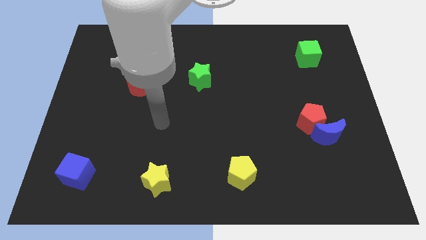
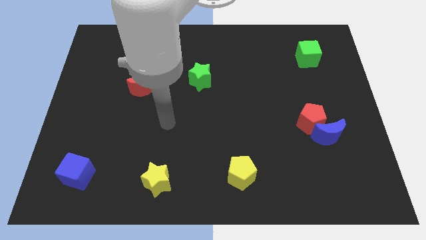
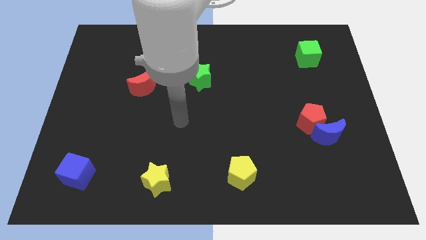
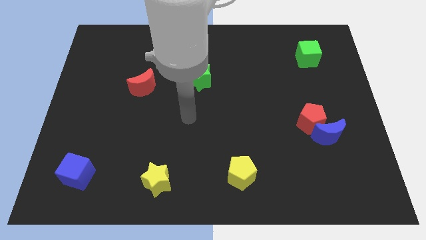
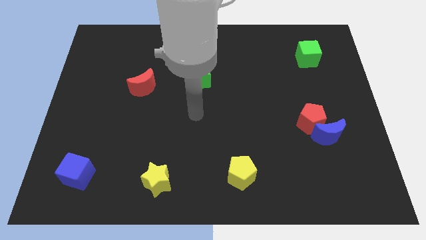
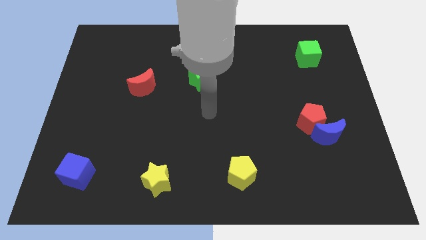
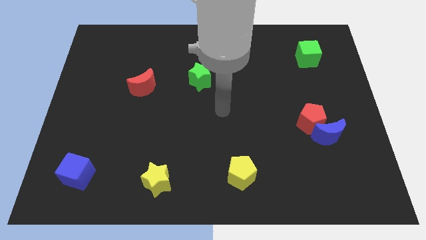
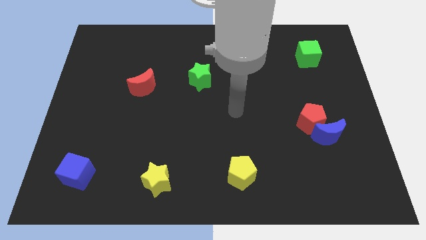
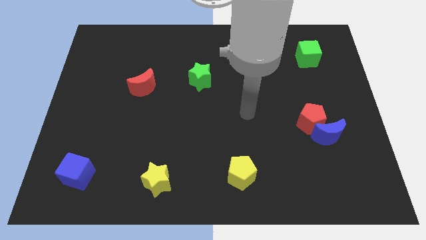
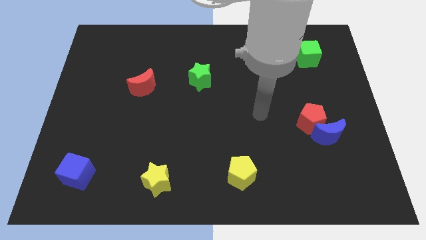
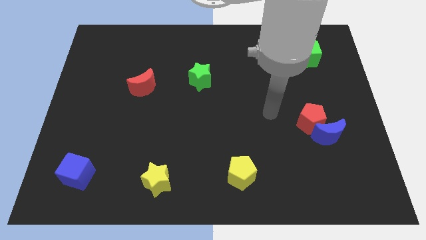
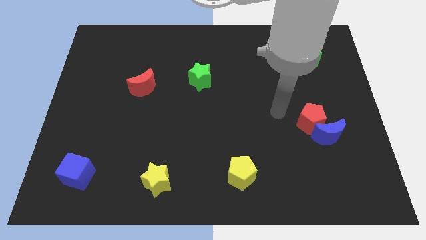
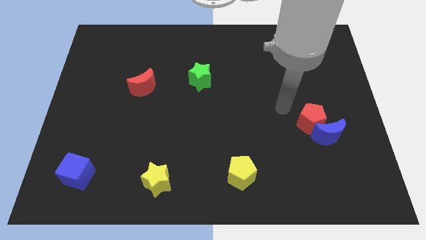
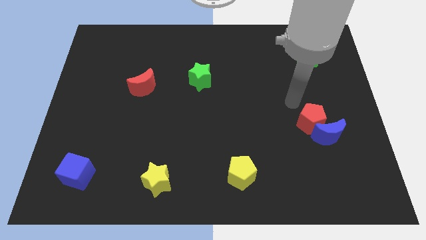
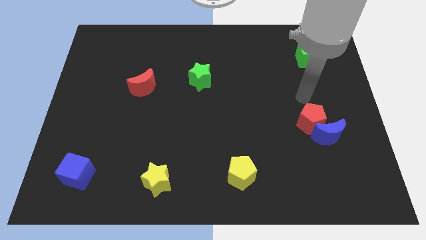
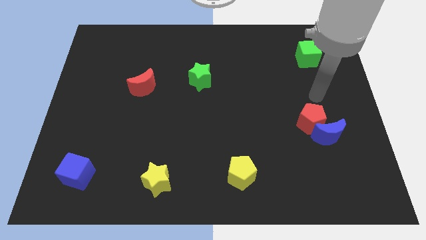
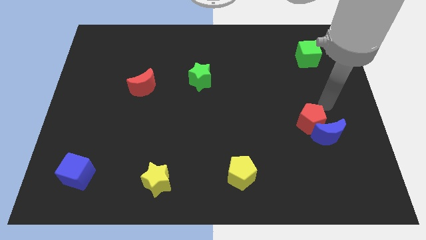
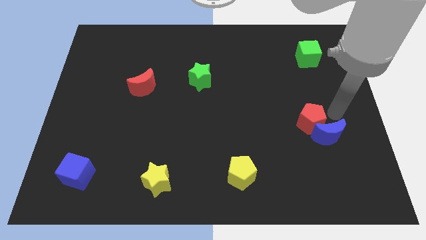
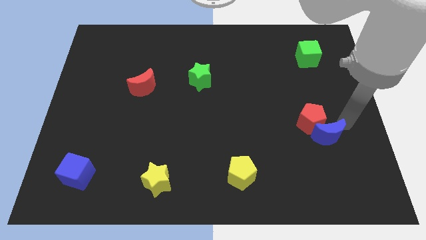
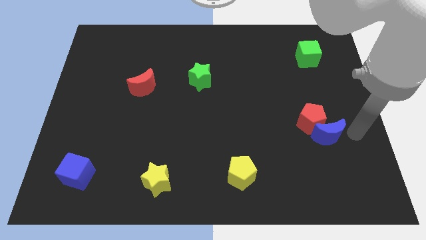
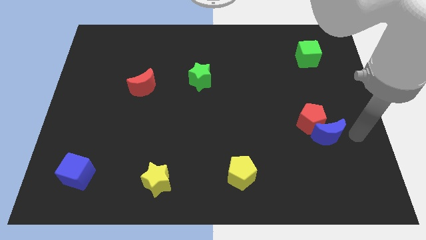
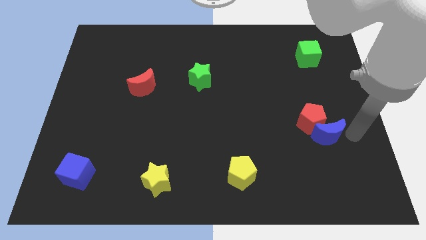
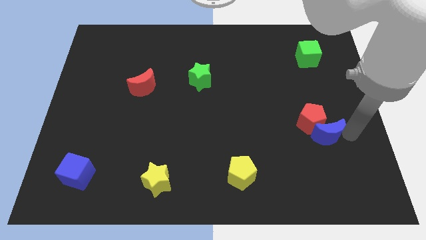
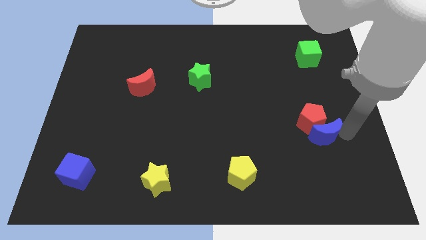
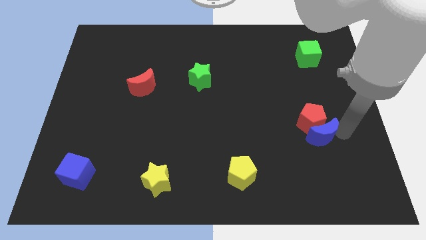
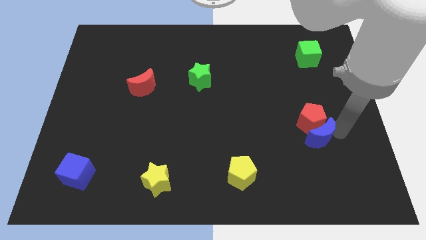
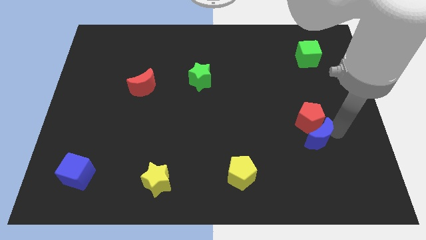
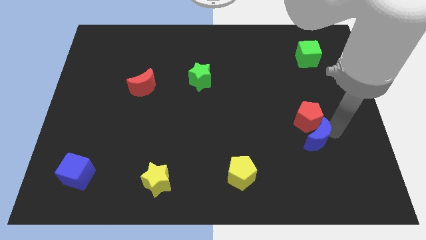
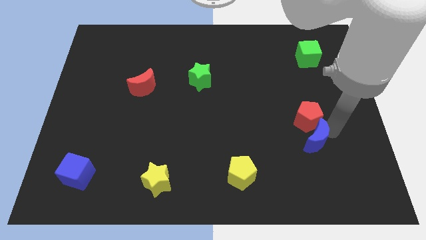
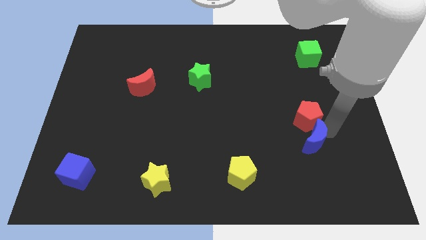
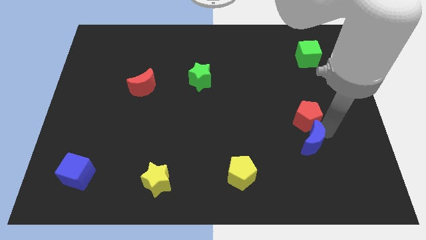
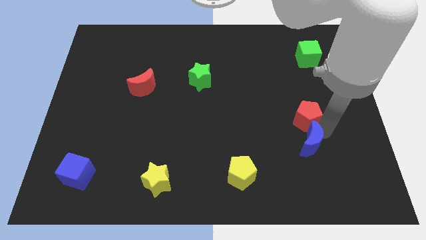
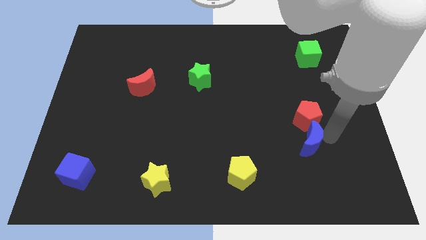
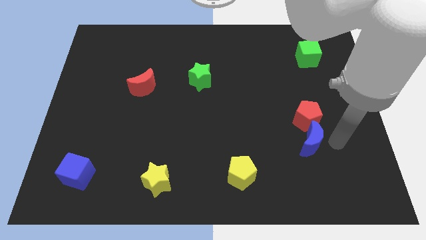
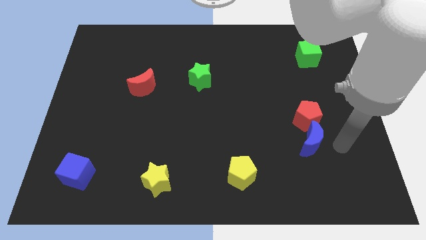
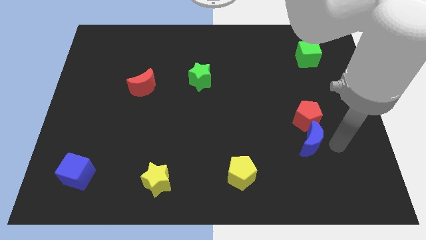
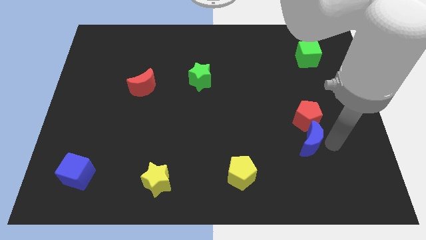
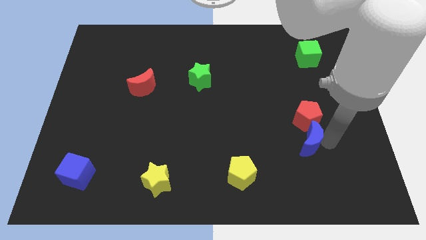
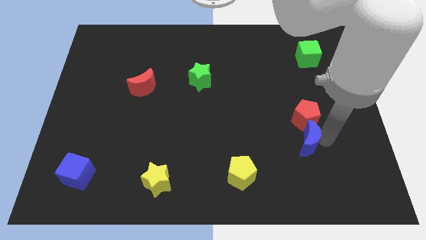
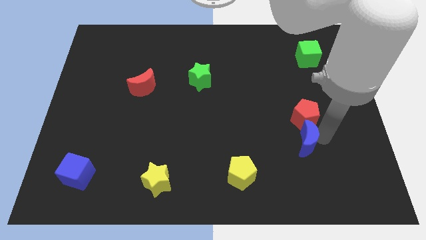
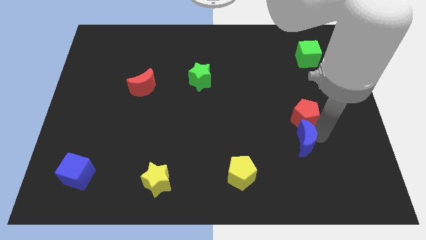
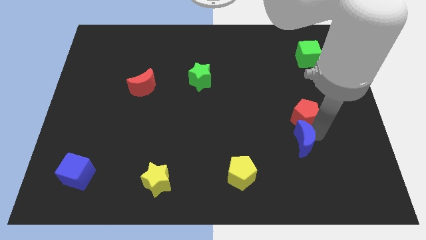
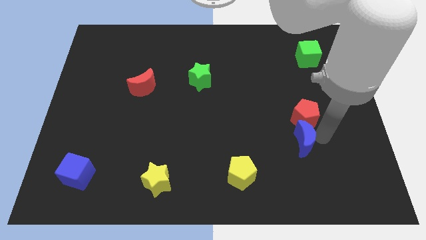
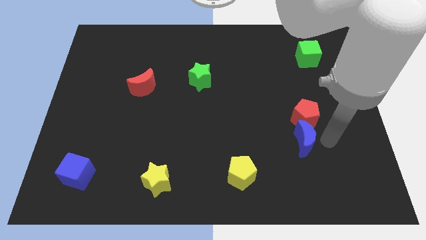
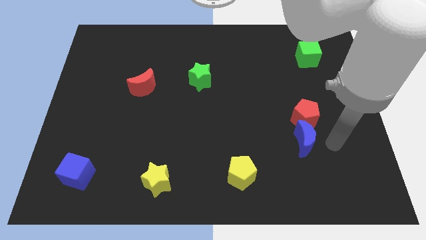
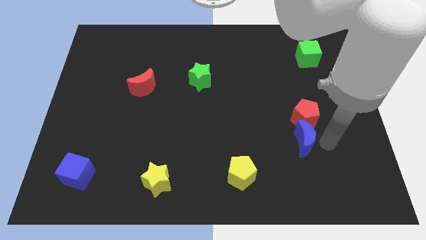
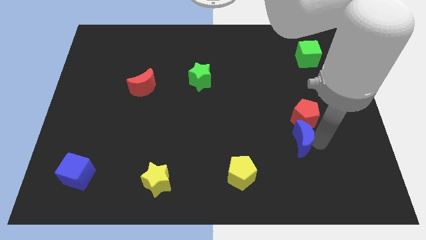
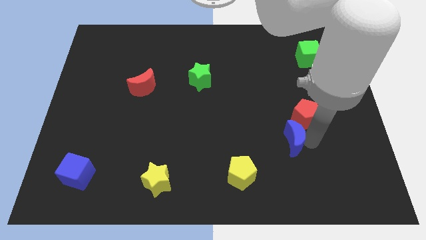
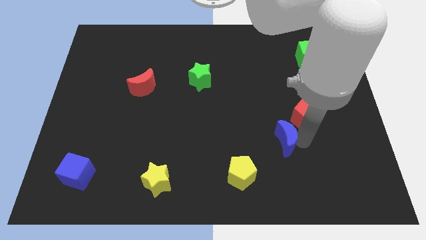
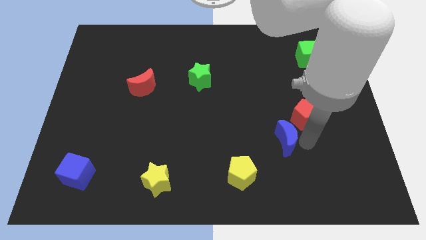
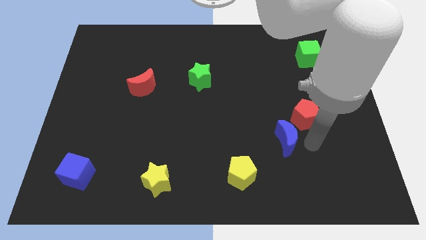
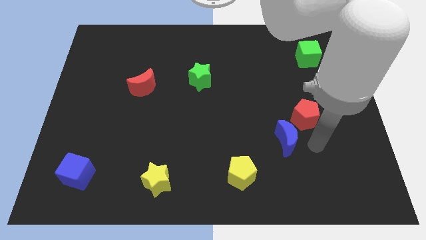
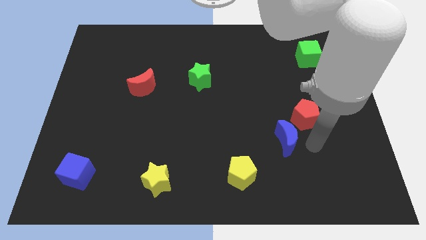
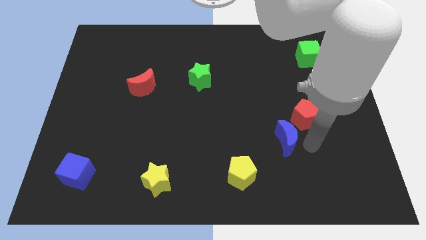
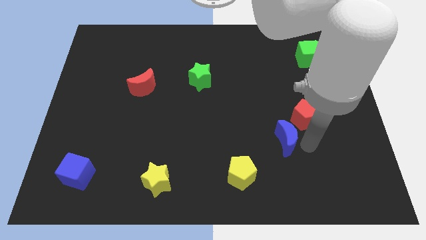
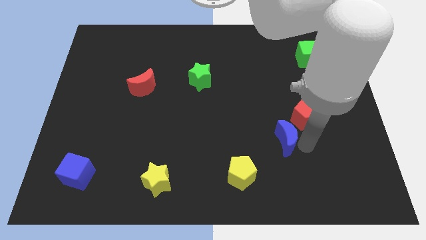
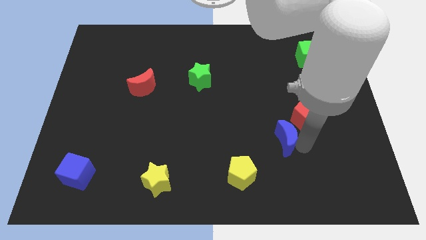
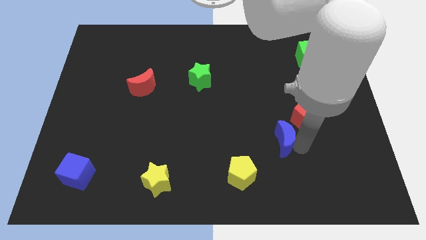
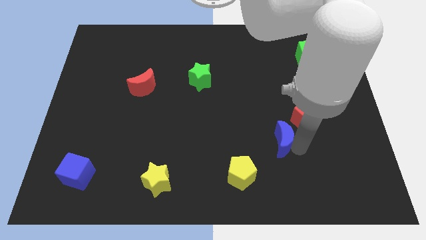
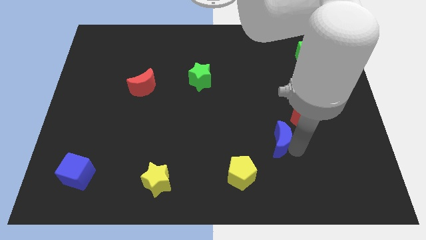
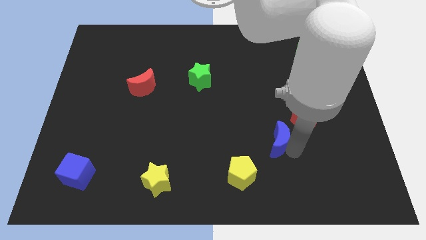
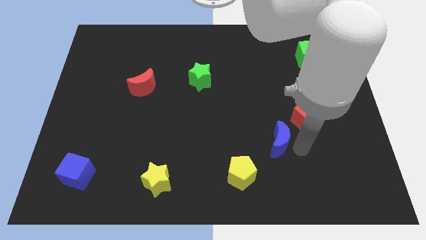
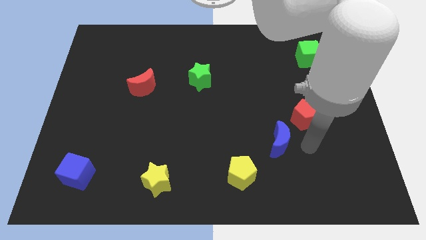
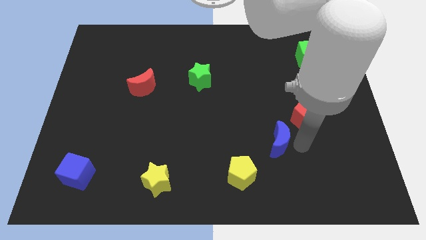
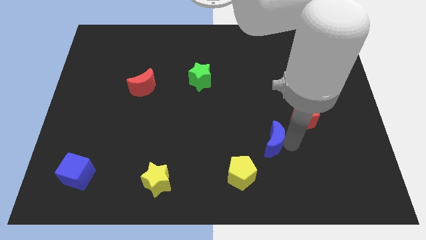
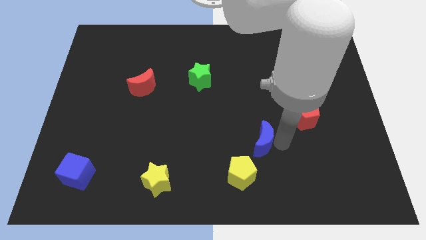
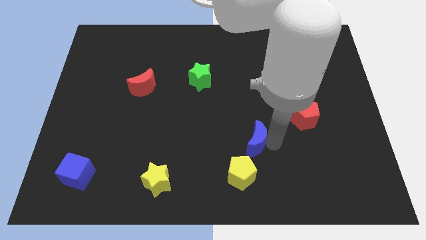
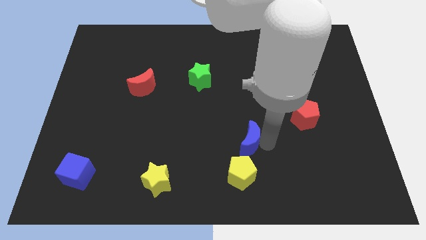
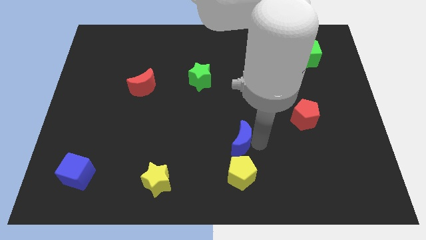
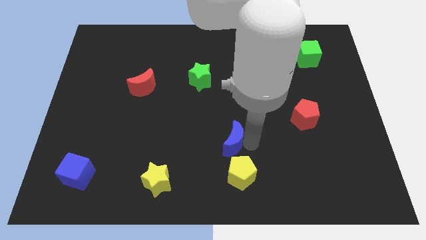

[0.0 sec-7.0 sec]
slide the blue moon to the left

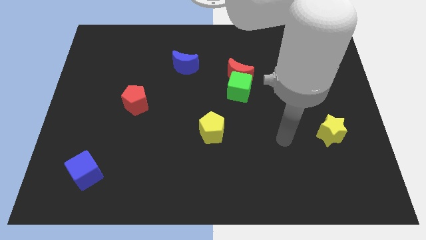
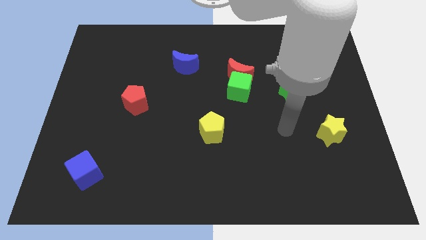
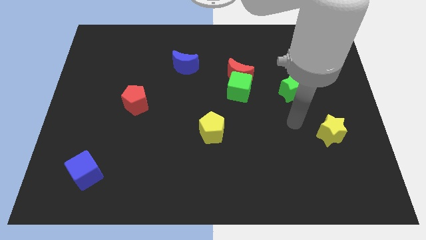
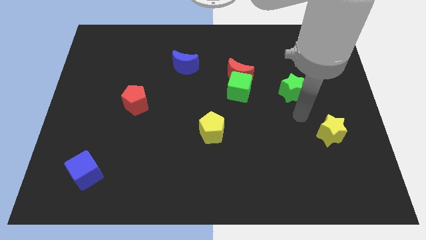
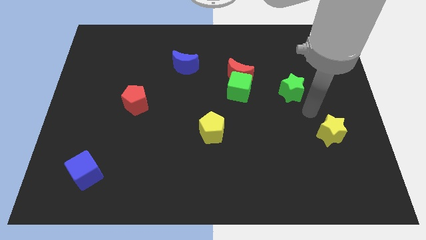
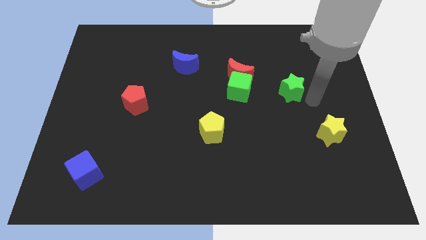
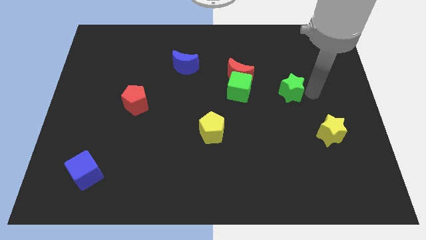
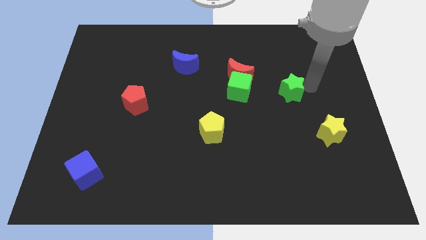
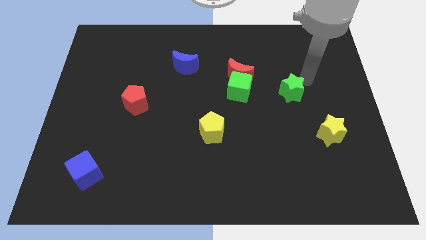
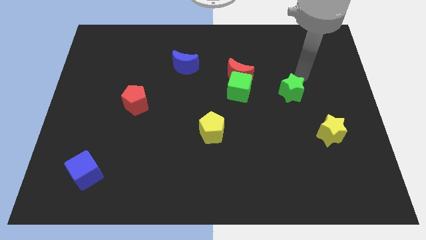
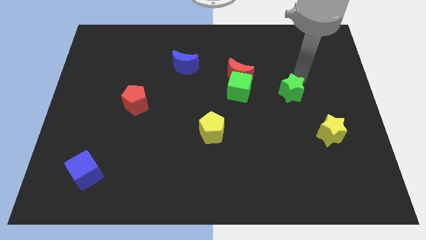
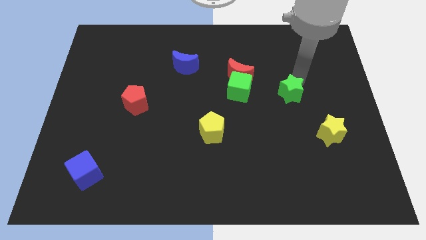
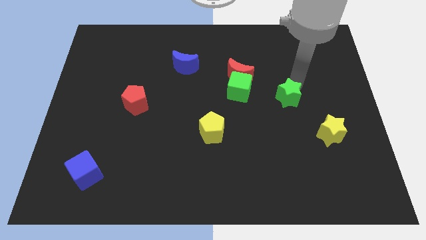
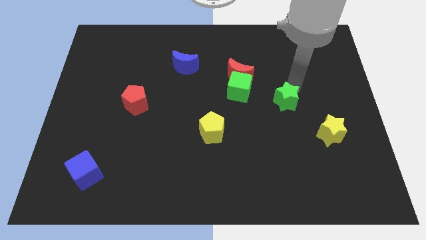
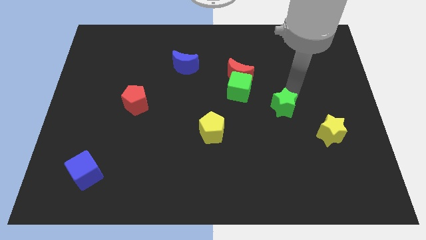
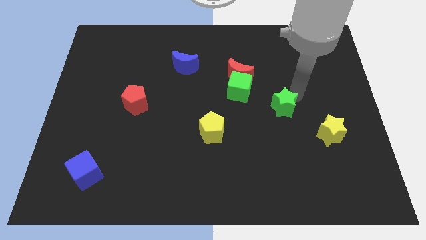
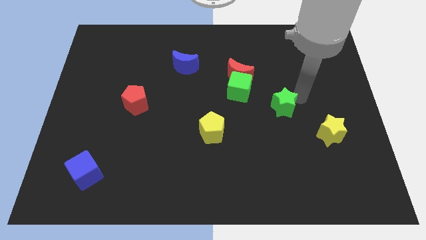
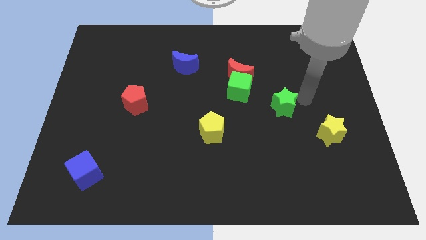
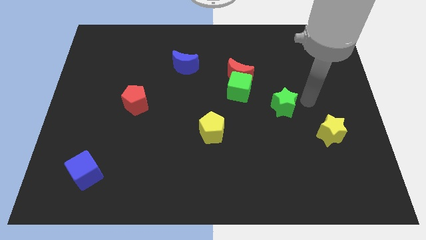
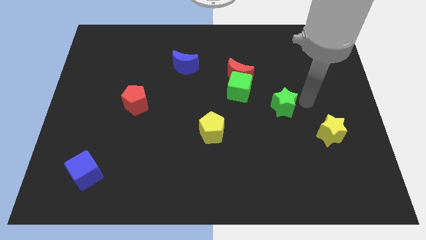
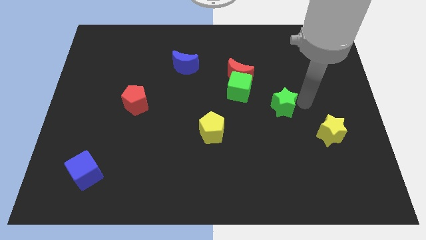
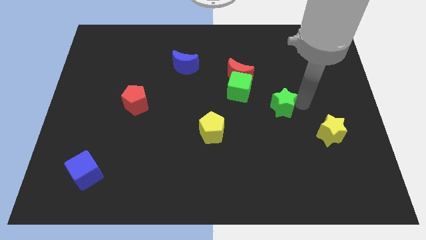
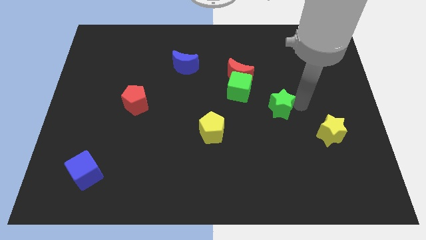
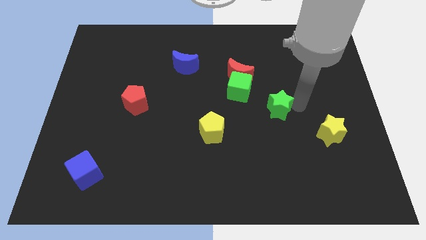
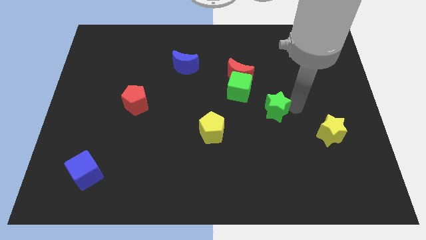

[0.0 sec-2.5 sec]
push the green star somewhat downwards and left diagonally
